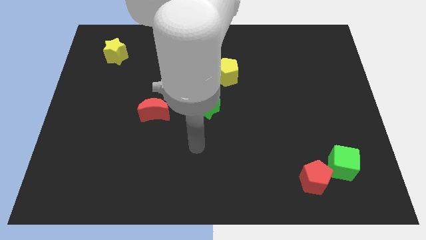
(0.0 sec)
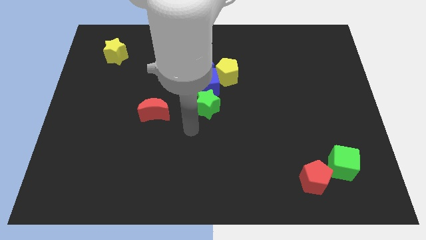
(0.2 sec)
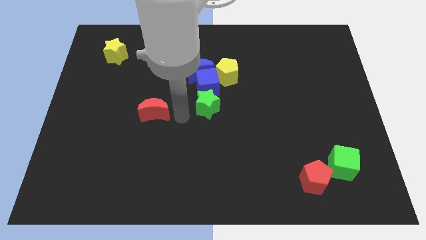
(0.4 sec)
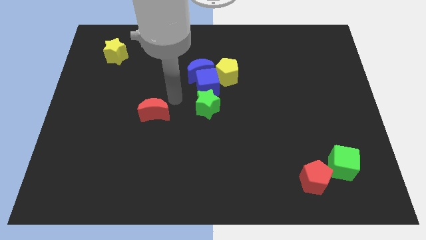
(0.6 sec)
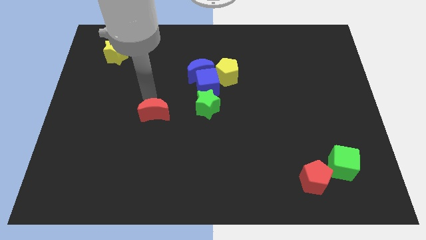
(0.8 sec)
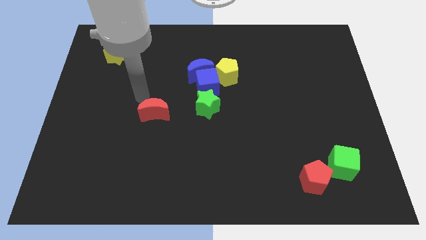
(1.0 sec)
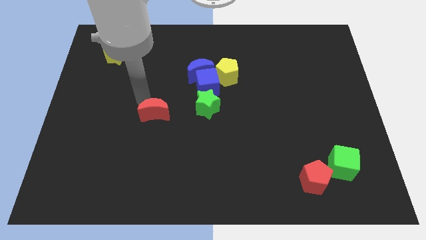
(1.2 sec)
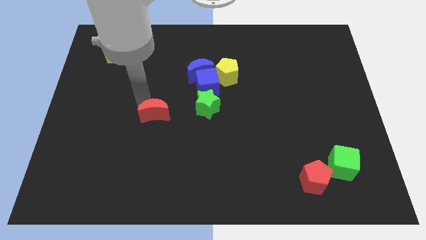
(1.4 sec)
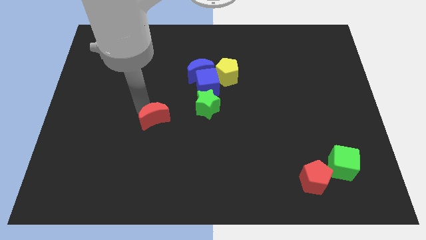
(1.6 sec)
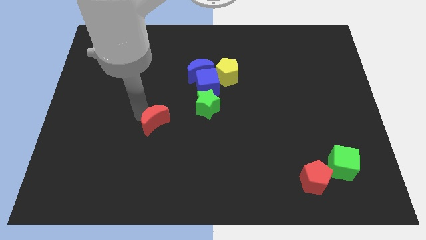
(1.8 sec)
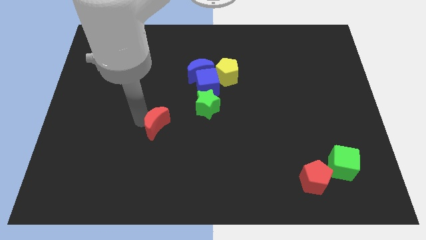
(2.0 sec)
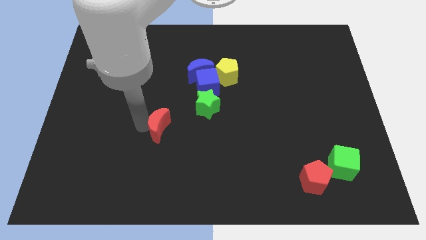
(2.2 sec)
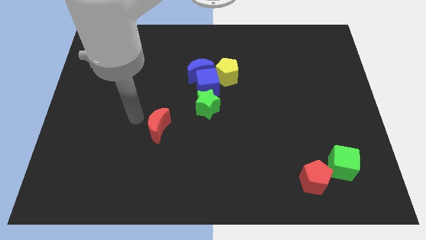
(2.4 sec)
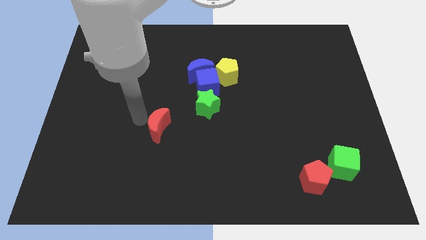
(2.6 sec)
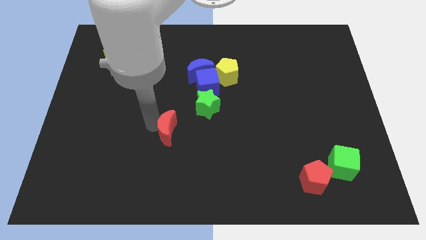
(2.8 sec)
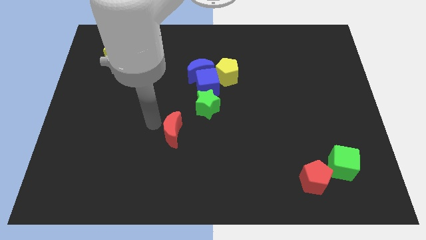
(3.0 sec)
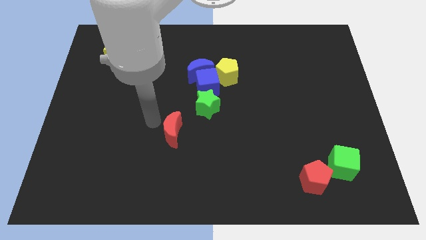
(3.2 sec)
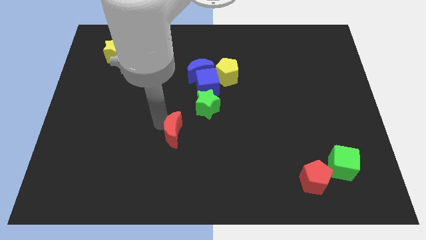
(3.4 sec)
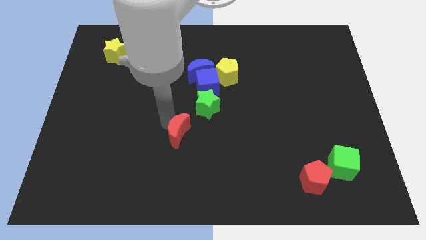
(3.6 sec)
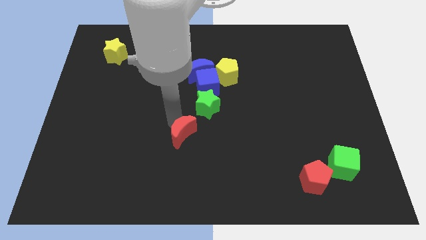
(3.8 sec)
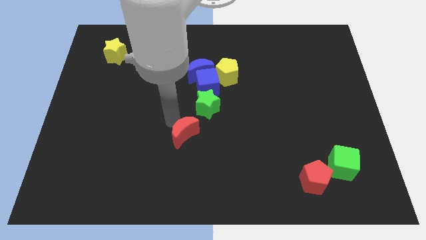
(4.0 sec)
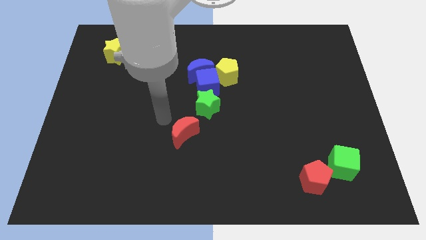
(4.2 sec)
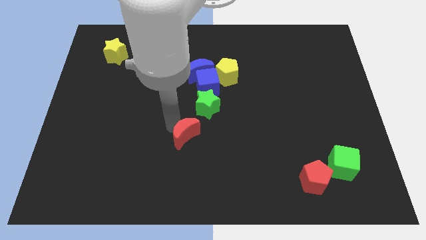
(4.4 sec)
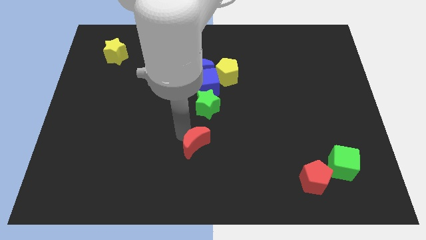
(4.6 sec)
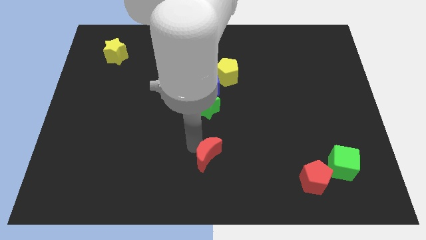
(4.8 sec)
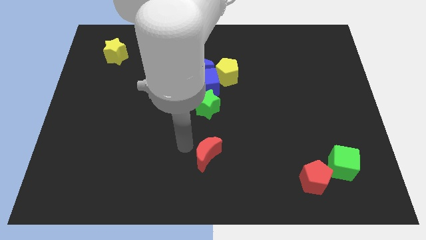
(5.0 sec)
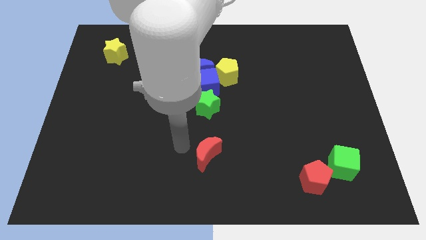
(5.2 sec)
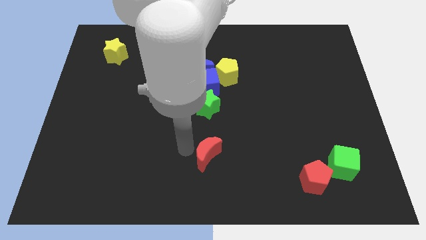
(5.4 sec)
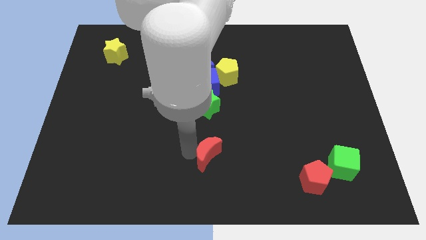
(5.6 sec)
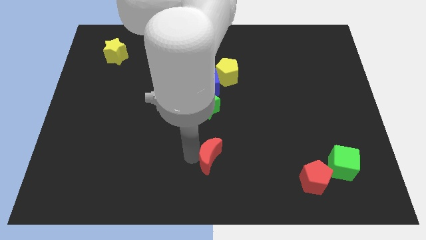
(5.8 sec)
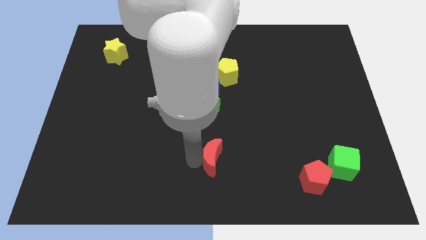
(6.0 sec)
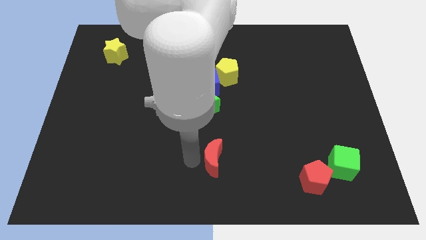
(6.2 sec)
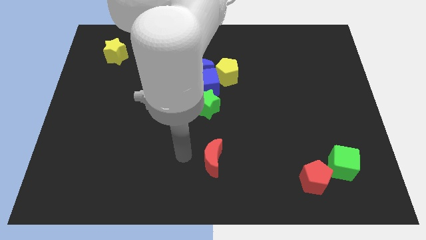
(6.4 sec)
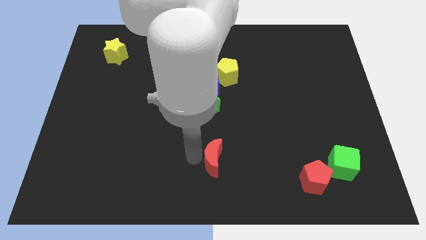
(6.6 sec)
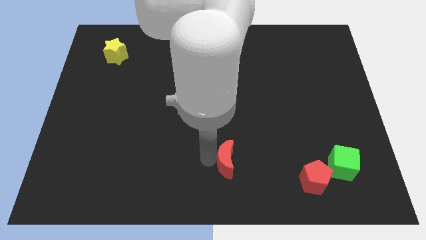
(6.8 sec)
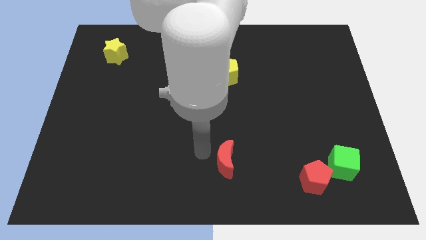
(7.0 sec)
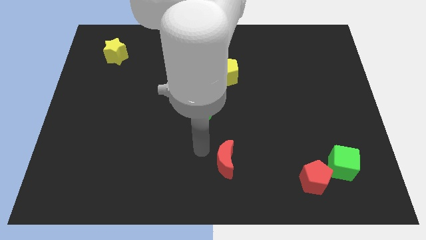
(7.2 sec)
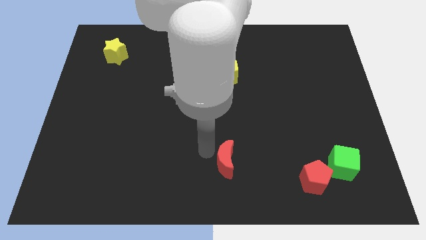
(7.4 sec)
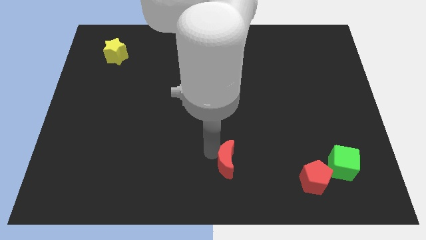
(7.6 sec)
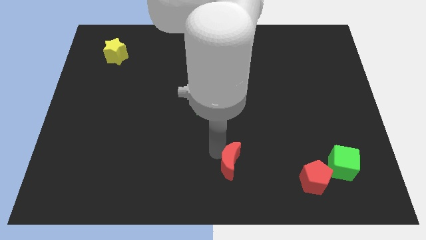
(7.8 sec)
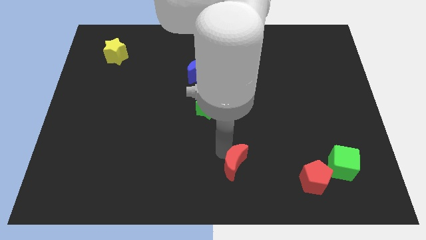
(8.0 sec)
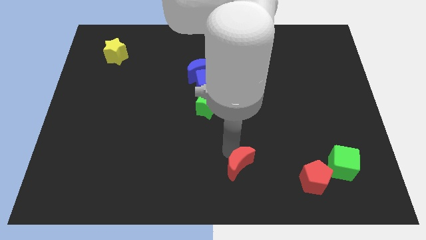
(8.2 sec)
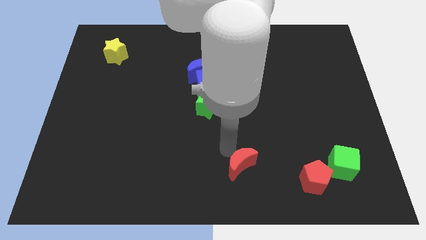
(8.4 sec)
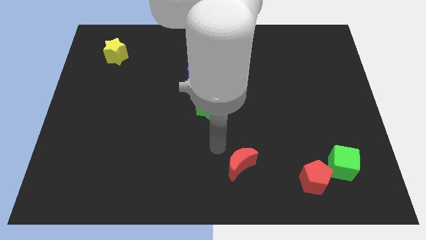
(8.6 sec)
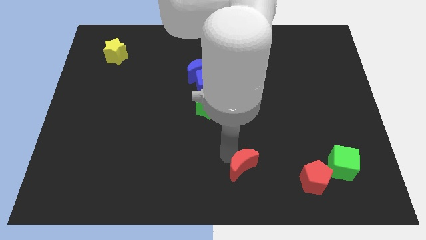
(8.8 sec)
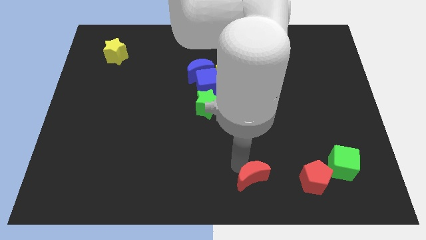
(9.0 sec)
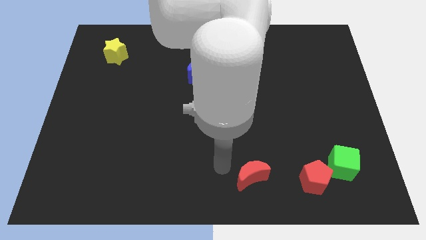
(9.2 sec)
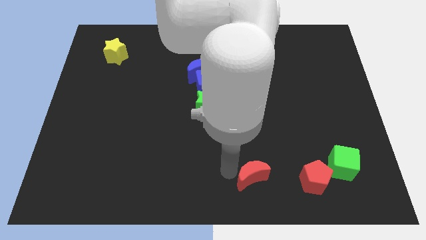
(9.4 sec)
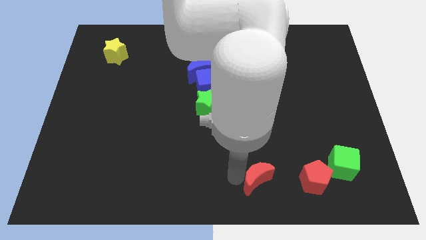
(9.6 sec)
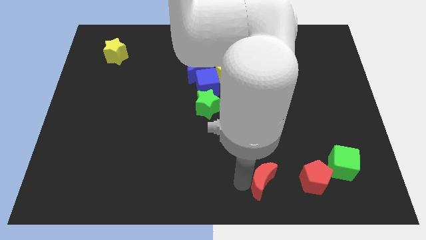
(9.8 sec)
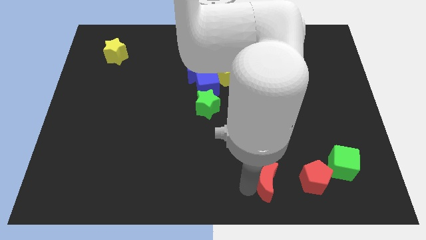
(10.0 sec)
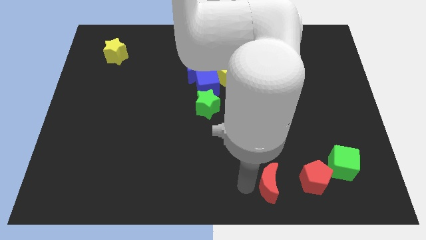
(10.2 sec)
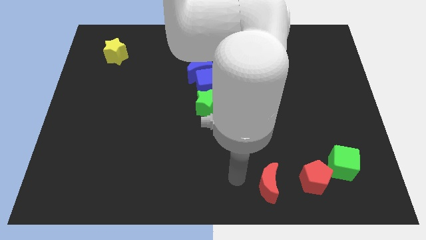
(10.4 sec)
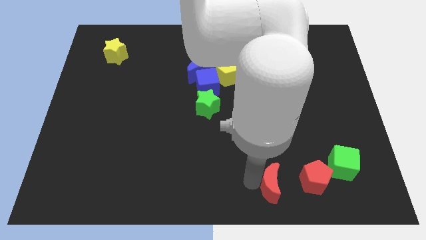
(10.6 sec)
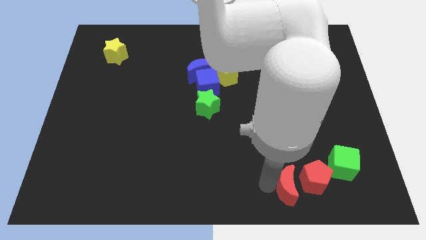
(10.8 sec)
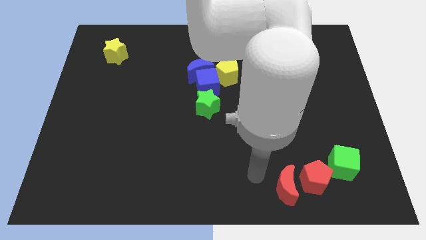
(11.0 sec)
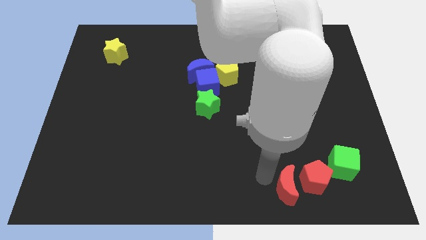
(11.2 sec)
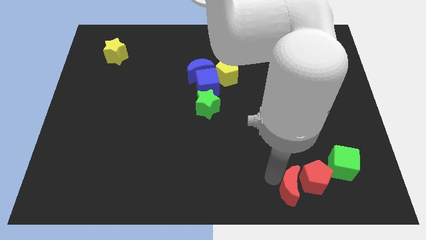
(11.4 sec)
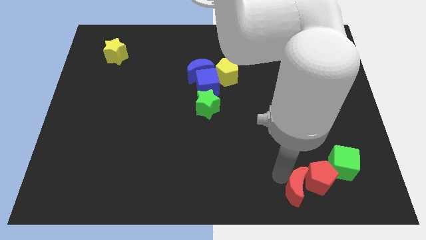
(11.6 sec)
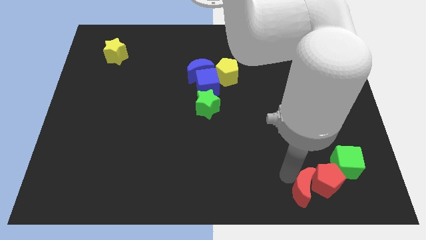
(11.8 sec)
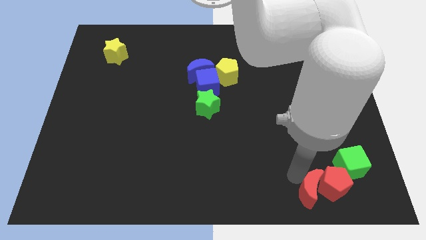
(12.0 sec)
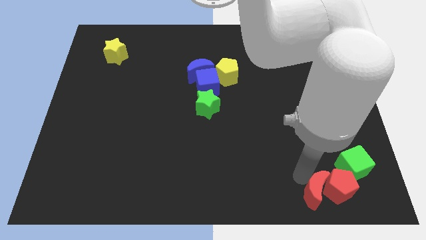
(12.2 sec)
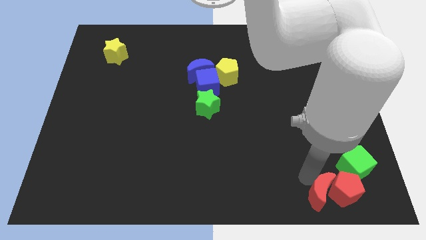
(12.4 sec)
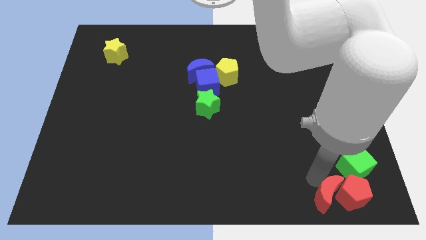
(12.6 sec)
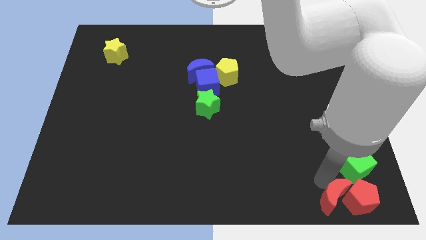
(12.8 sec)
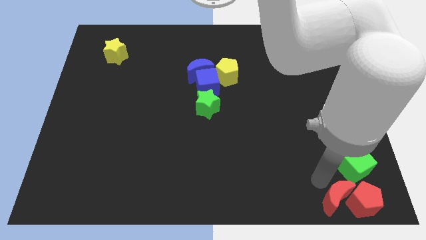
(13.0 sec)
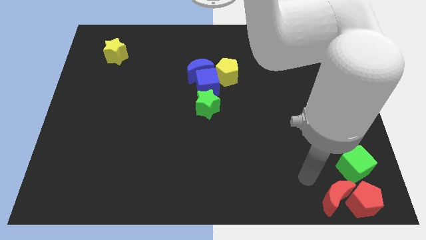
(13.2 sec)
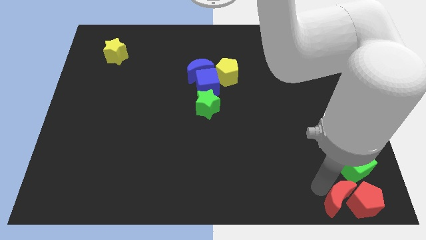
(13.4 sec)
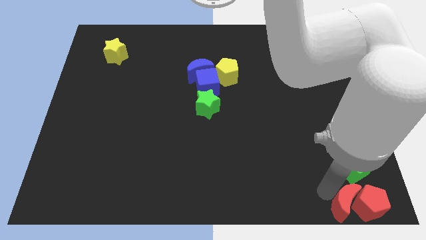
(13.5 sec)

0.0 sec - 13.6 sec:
push the red moon to the bottom right
